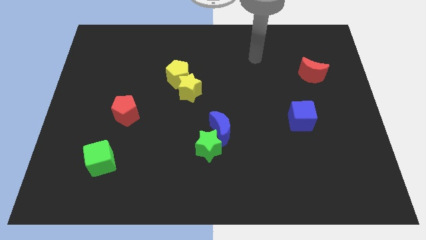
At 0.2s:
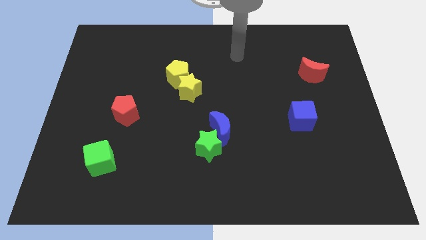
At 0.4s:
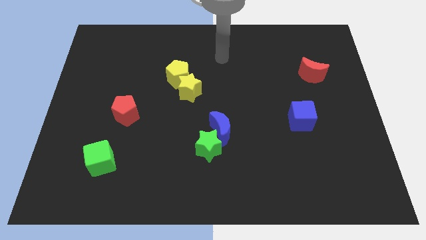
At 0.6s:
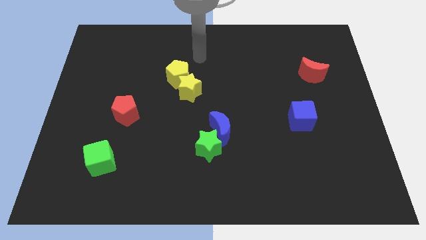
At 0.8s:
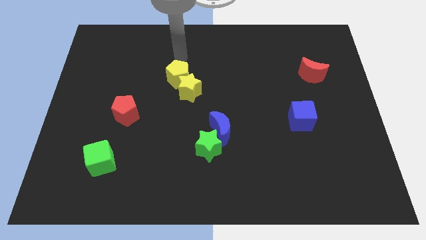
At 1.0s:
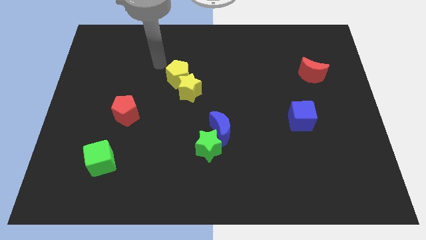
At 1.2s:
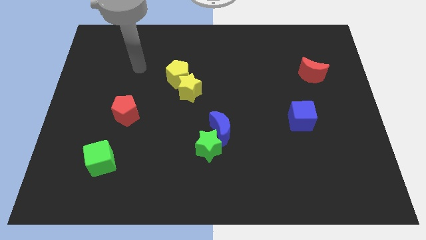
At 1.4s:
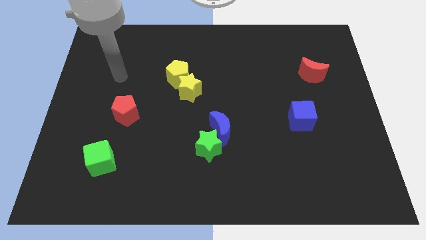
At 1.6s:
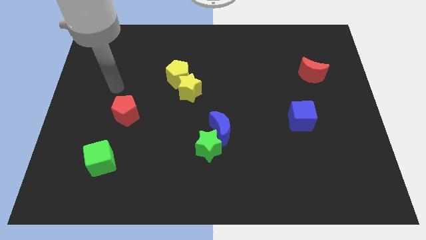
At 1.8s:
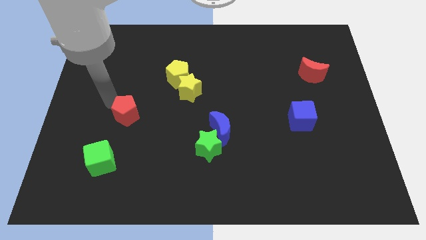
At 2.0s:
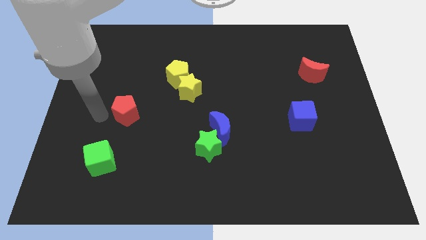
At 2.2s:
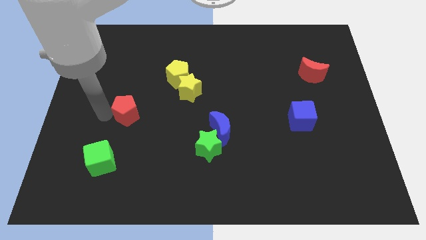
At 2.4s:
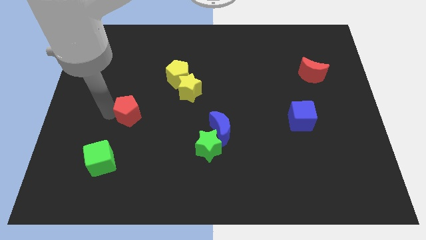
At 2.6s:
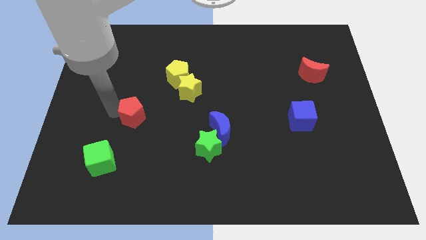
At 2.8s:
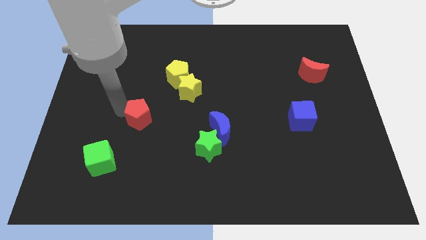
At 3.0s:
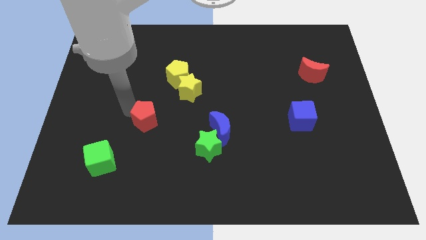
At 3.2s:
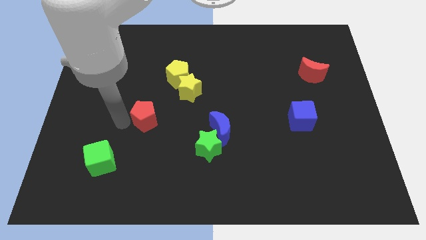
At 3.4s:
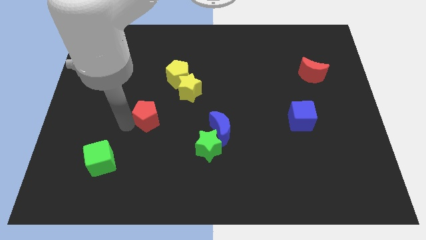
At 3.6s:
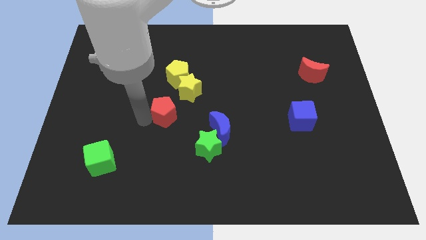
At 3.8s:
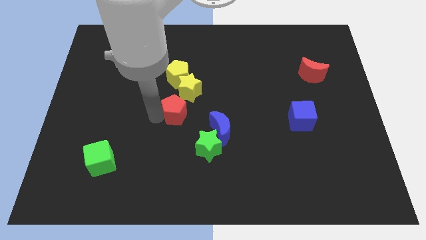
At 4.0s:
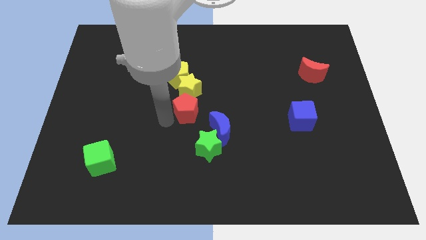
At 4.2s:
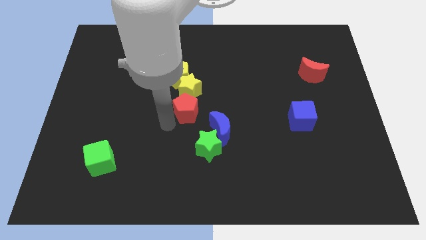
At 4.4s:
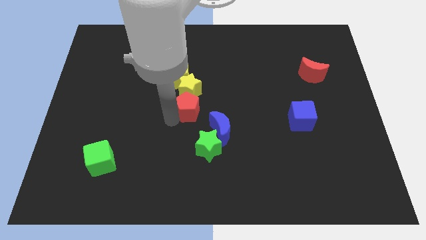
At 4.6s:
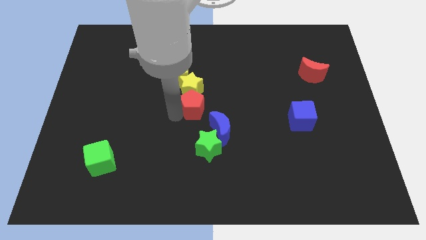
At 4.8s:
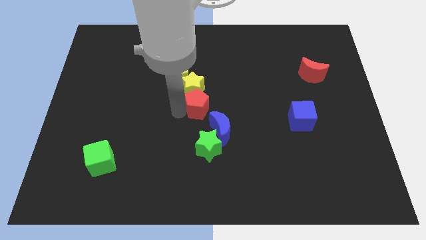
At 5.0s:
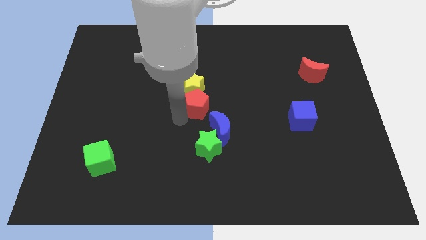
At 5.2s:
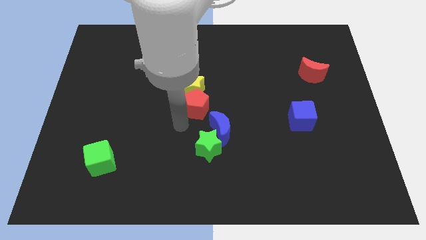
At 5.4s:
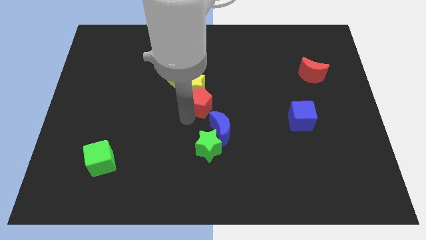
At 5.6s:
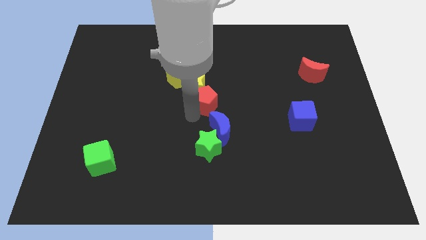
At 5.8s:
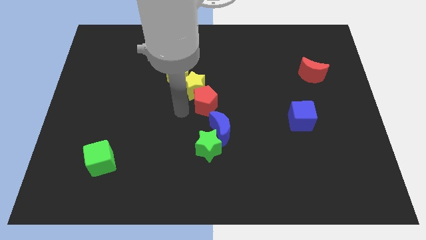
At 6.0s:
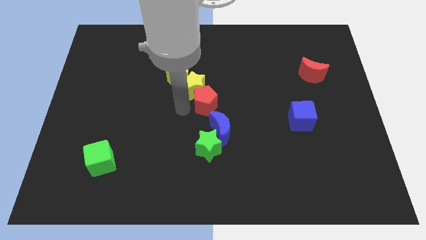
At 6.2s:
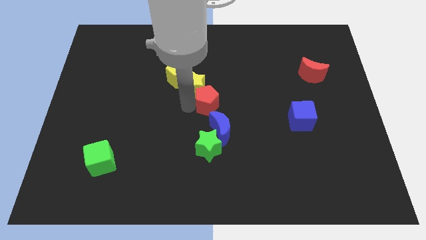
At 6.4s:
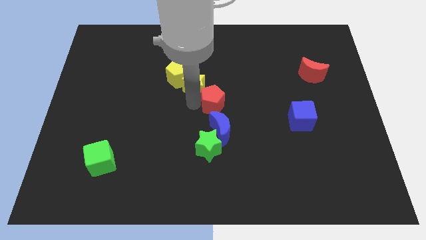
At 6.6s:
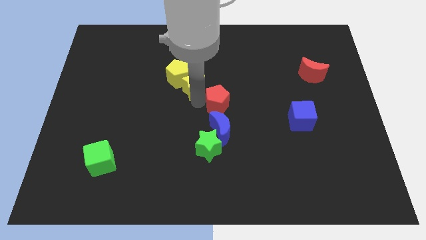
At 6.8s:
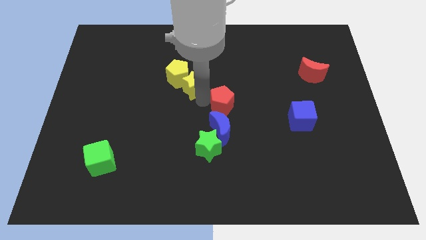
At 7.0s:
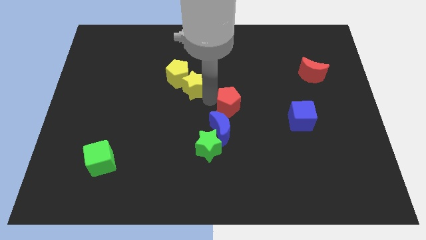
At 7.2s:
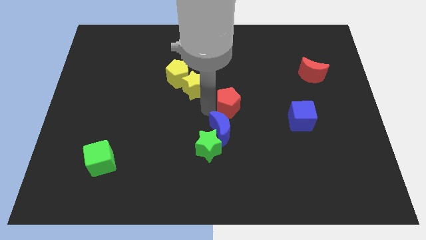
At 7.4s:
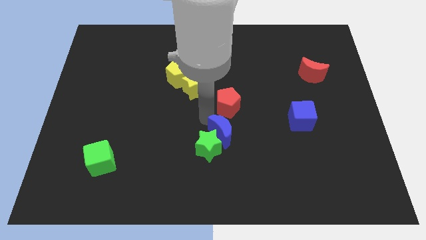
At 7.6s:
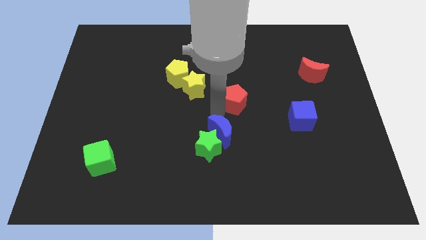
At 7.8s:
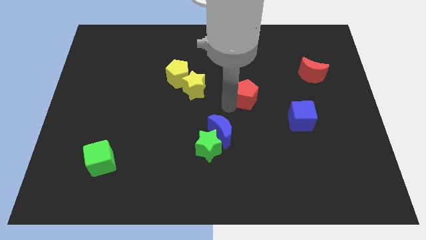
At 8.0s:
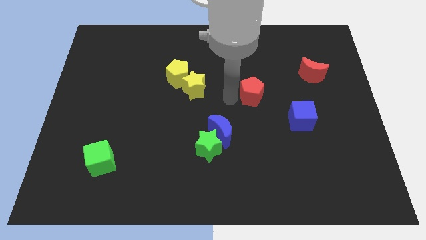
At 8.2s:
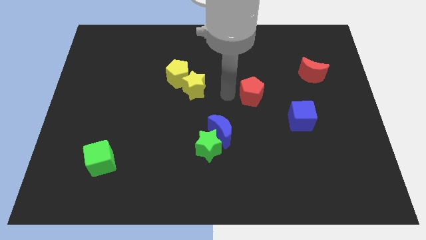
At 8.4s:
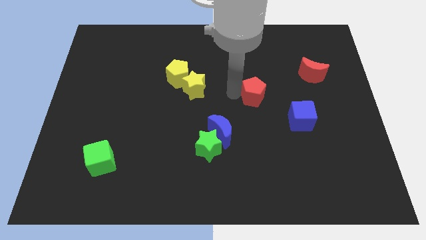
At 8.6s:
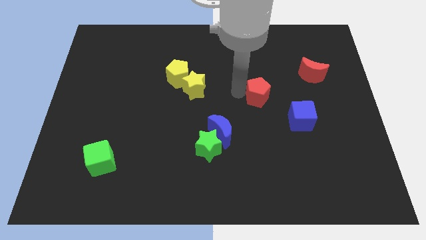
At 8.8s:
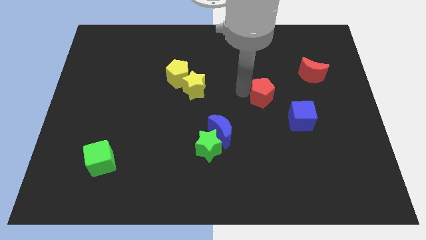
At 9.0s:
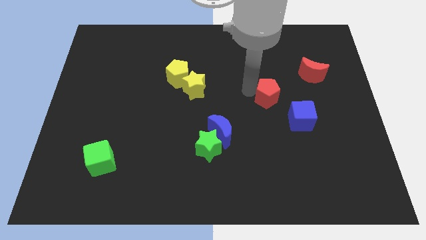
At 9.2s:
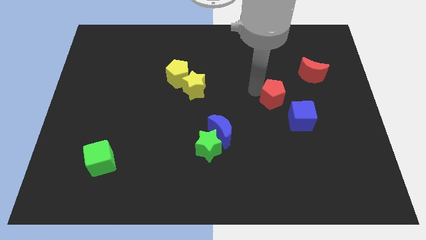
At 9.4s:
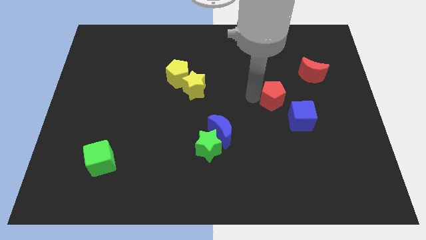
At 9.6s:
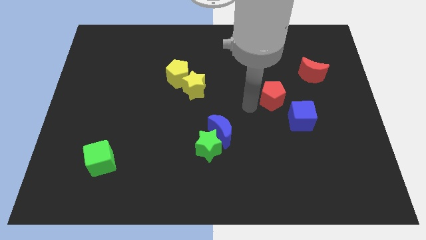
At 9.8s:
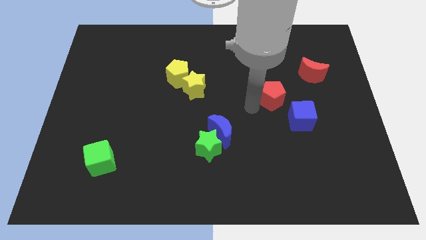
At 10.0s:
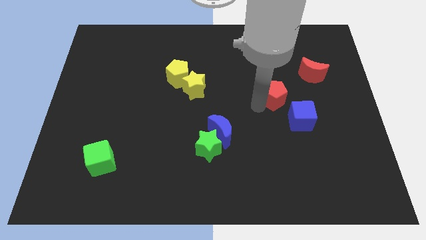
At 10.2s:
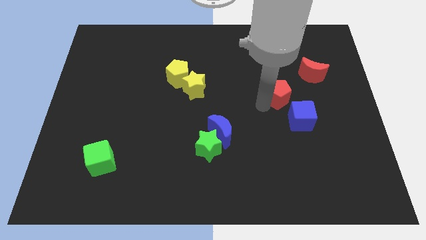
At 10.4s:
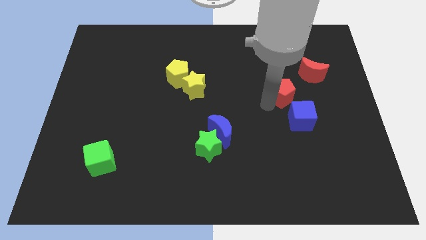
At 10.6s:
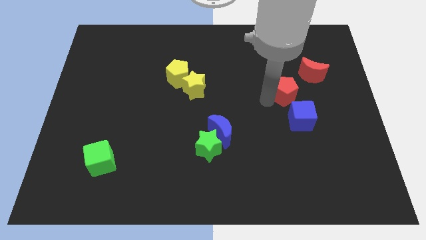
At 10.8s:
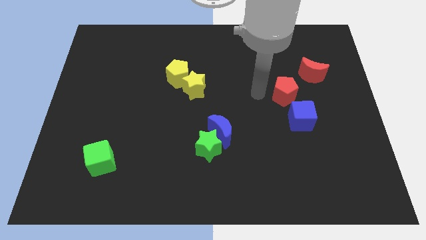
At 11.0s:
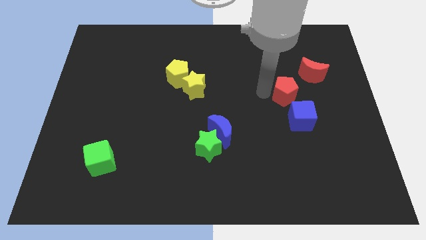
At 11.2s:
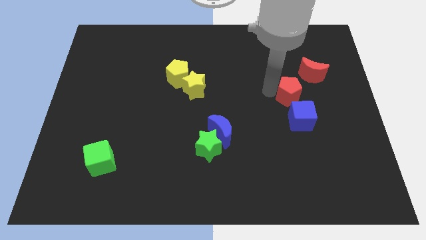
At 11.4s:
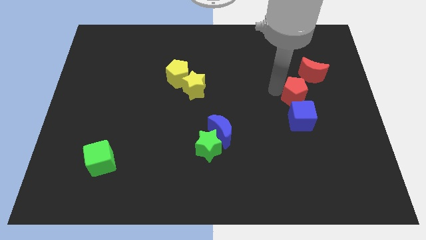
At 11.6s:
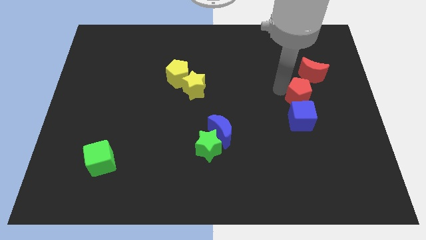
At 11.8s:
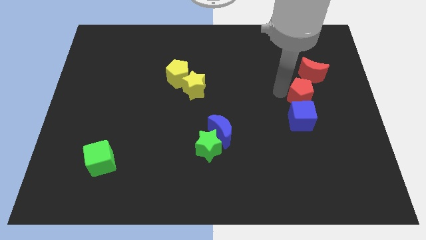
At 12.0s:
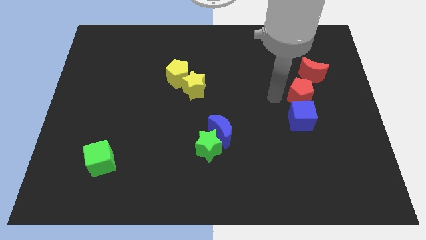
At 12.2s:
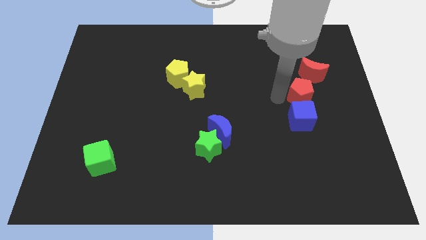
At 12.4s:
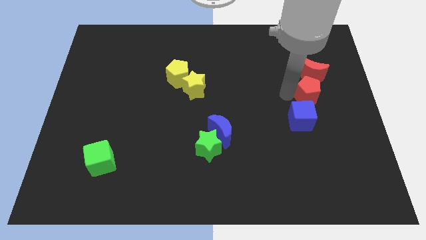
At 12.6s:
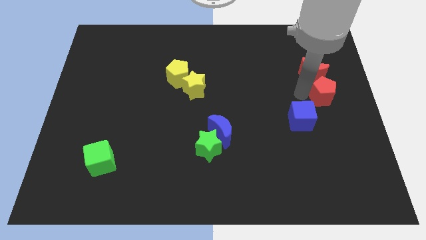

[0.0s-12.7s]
put the red pentagon to the right side of the board
